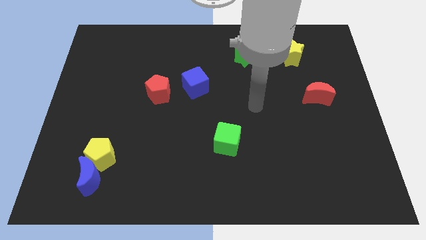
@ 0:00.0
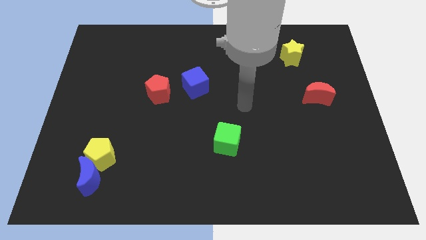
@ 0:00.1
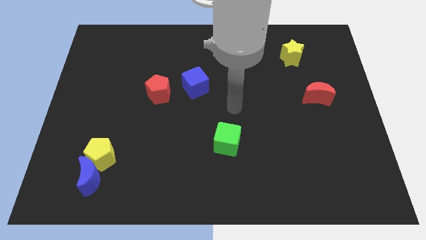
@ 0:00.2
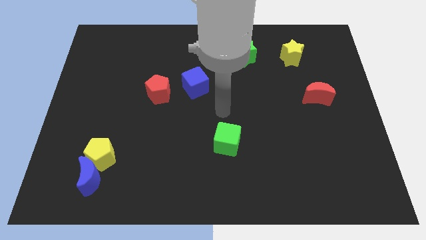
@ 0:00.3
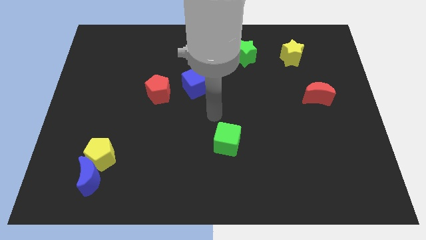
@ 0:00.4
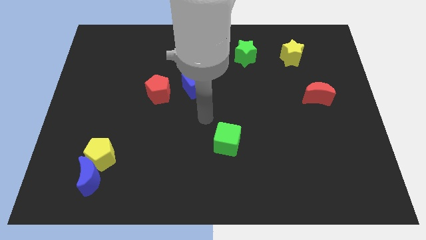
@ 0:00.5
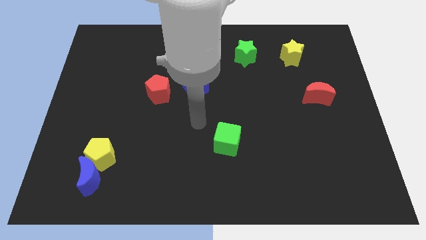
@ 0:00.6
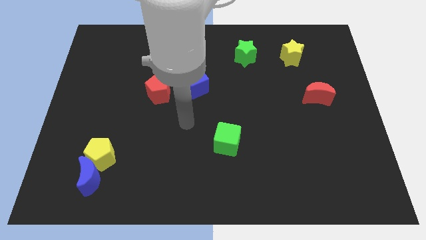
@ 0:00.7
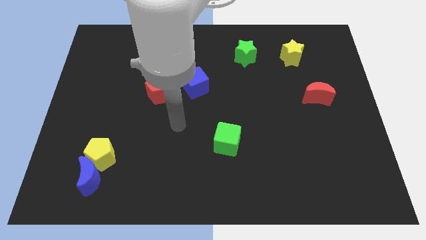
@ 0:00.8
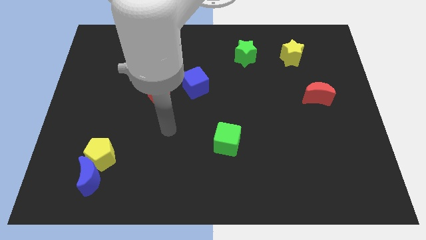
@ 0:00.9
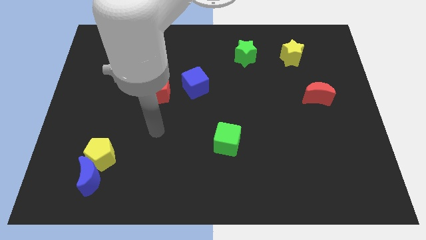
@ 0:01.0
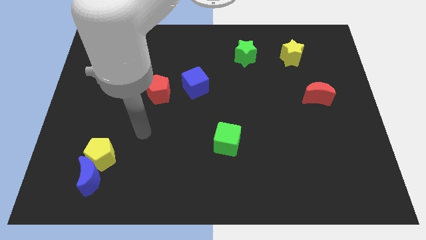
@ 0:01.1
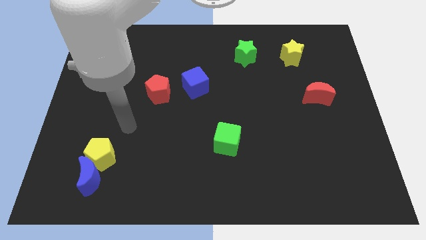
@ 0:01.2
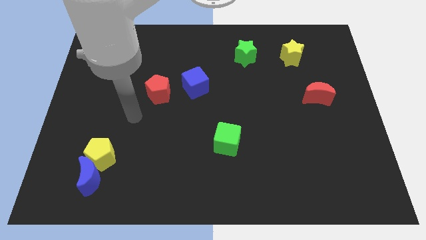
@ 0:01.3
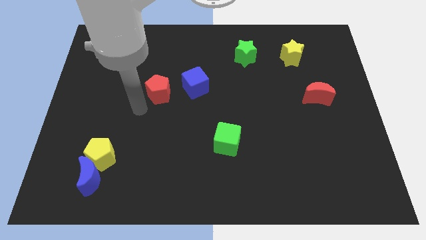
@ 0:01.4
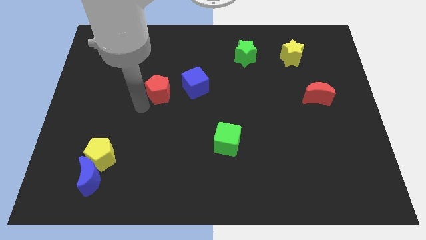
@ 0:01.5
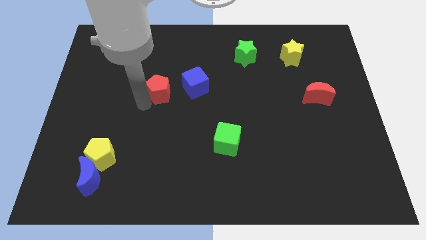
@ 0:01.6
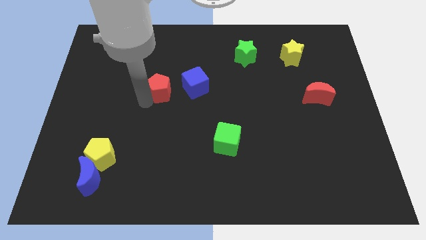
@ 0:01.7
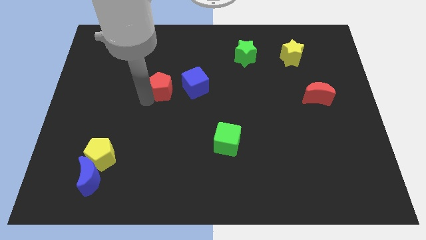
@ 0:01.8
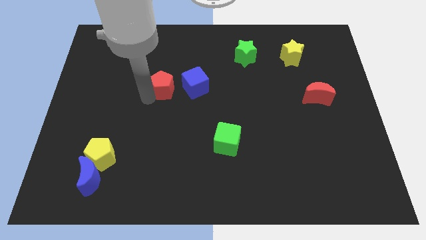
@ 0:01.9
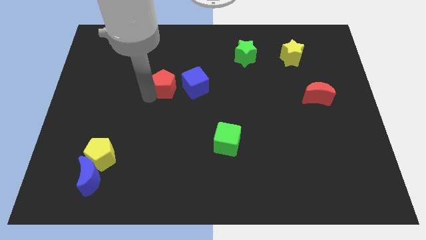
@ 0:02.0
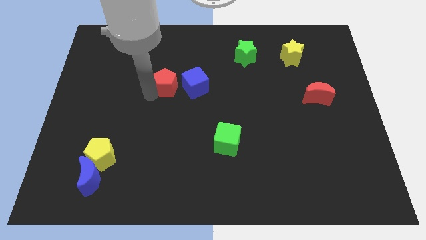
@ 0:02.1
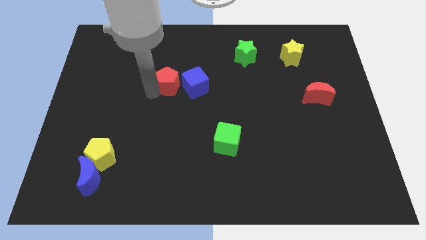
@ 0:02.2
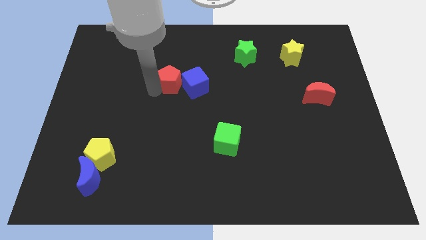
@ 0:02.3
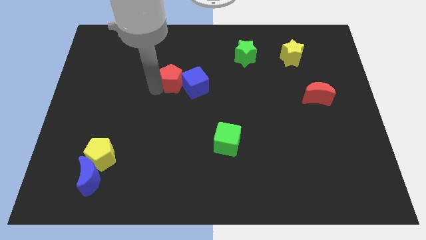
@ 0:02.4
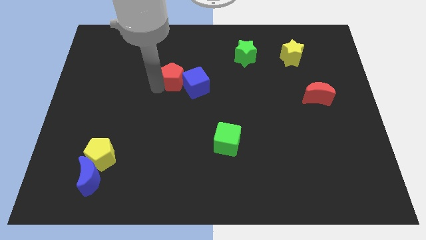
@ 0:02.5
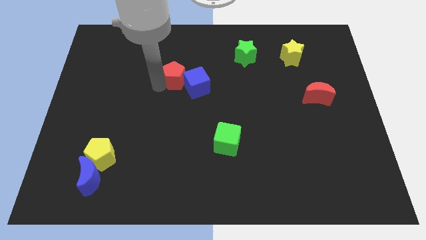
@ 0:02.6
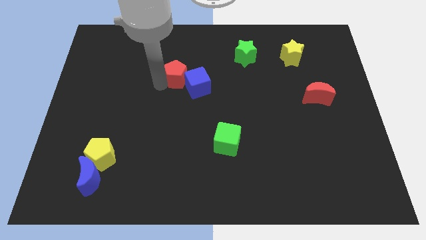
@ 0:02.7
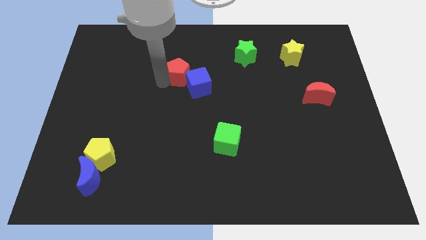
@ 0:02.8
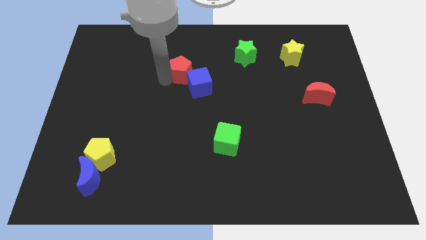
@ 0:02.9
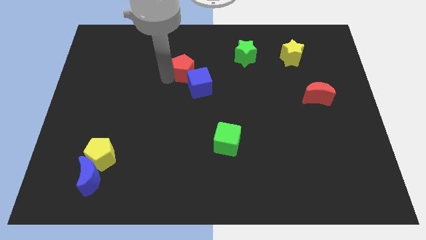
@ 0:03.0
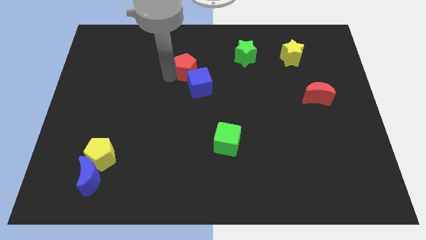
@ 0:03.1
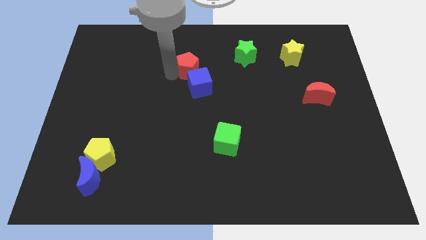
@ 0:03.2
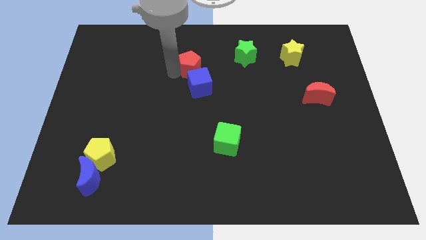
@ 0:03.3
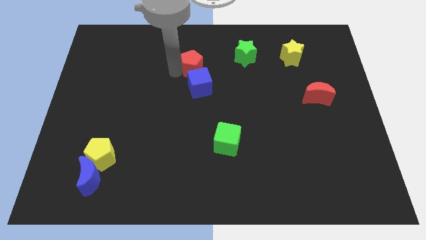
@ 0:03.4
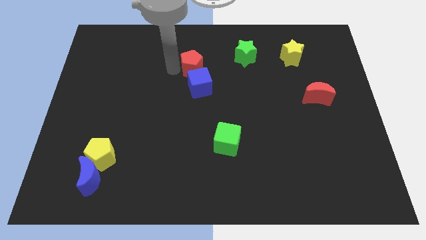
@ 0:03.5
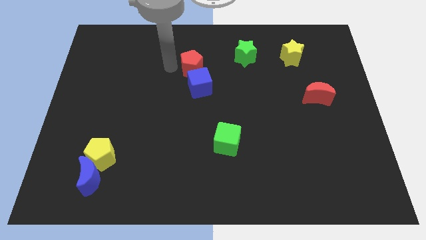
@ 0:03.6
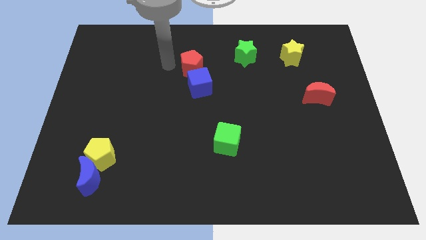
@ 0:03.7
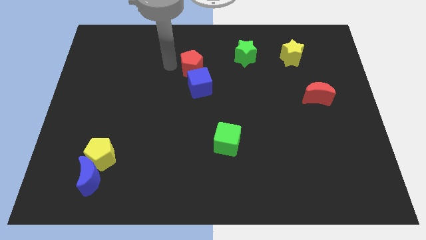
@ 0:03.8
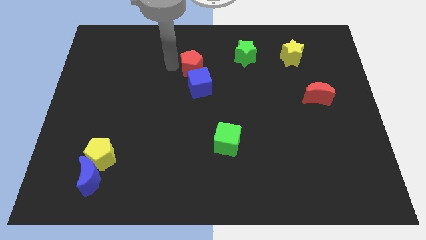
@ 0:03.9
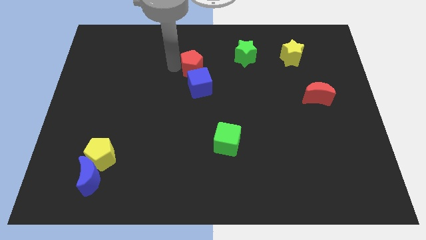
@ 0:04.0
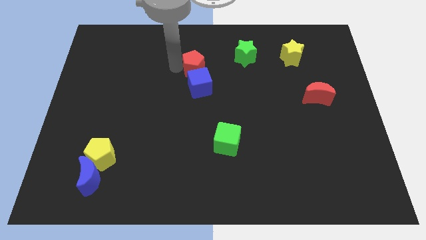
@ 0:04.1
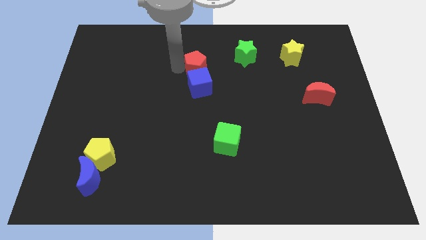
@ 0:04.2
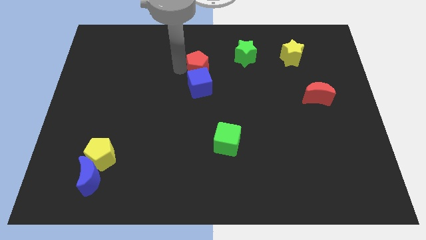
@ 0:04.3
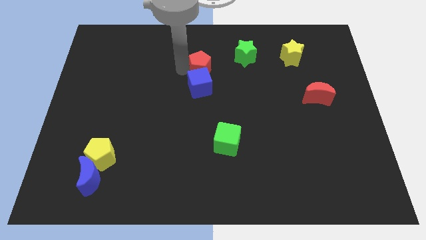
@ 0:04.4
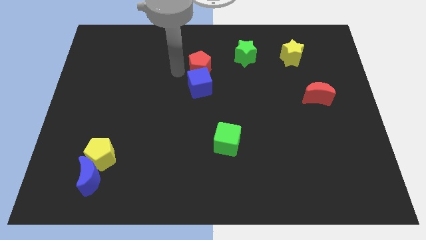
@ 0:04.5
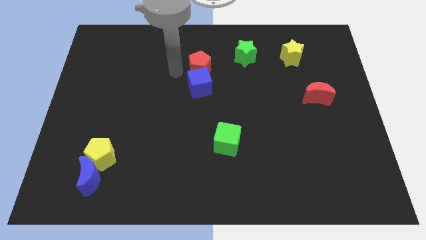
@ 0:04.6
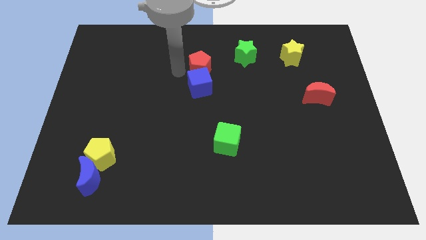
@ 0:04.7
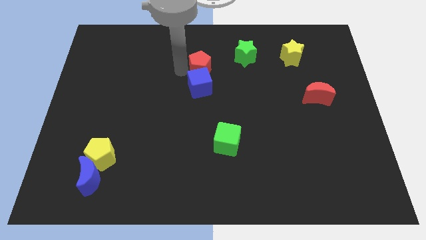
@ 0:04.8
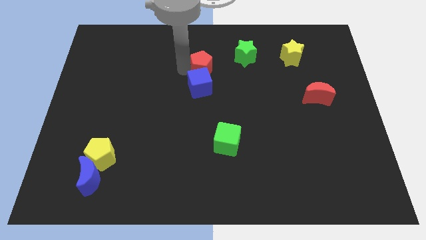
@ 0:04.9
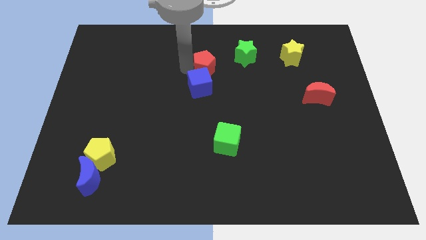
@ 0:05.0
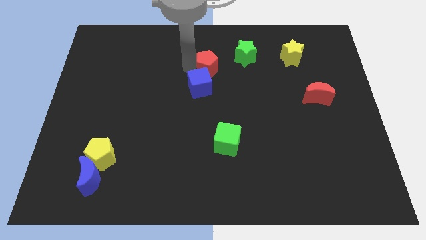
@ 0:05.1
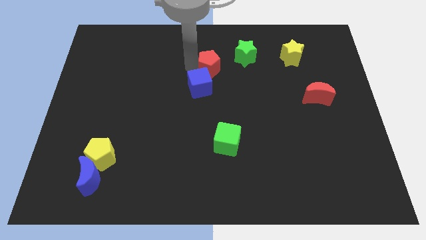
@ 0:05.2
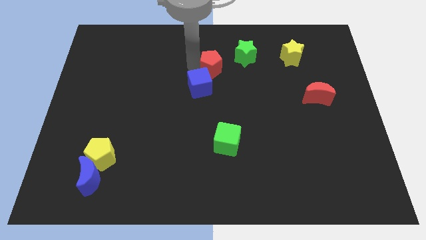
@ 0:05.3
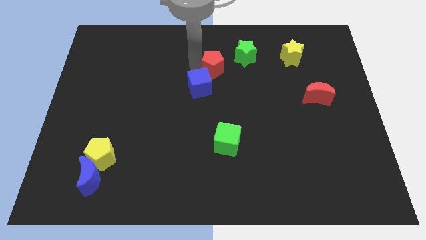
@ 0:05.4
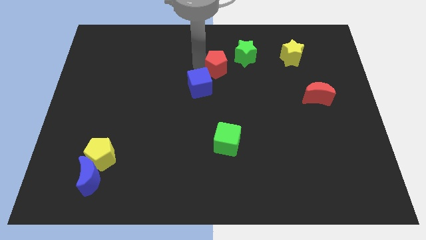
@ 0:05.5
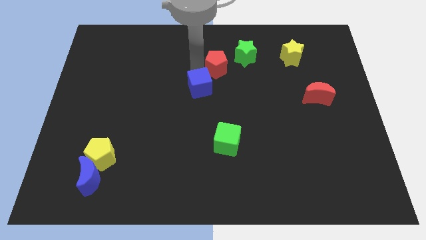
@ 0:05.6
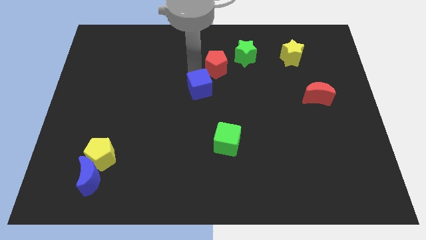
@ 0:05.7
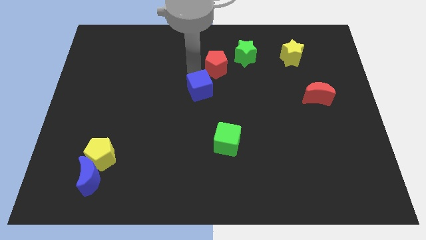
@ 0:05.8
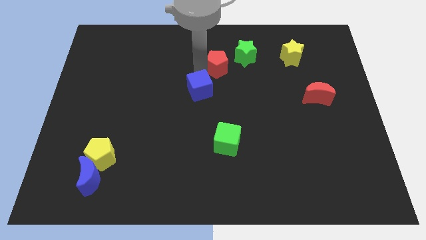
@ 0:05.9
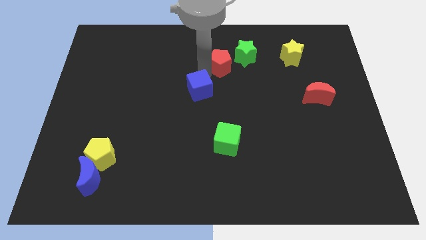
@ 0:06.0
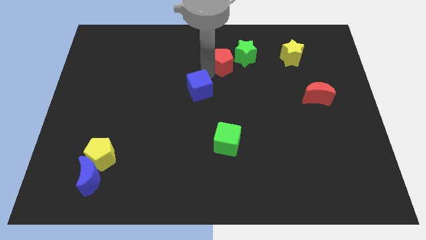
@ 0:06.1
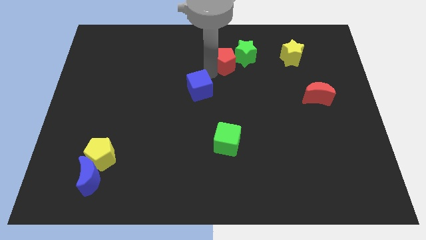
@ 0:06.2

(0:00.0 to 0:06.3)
slide the red pentagon towards the green star

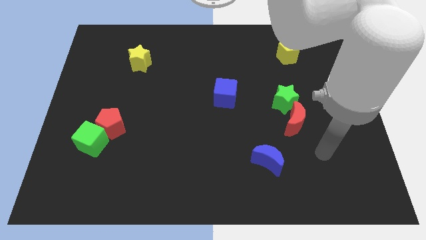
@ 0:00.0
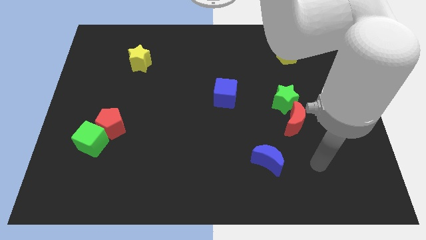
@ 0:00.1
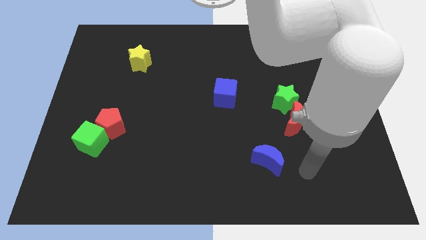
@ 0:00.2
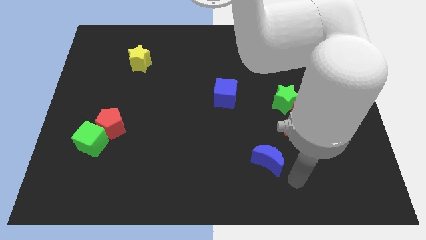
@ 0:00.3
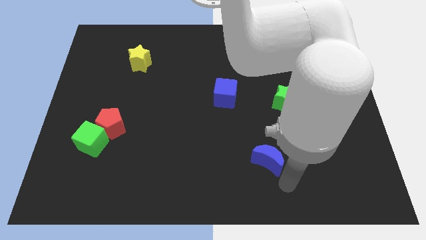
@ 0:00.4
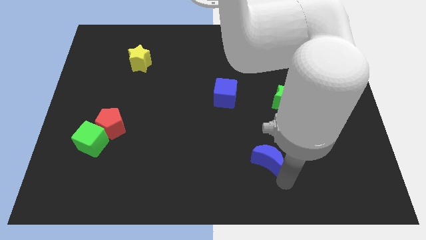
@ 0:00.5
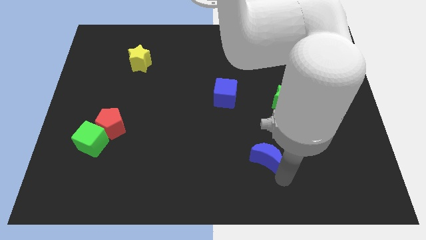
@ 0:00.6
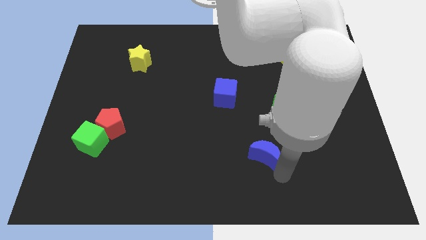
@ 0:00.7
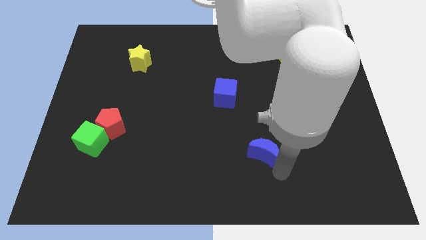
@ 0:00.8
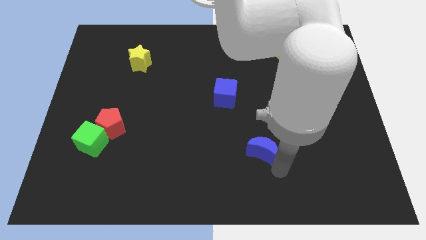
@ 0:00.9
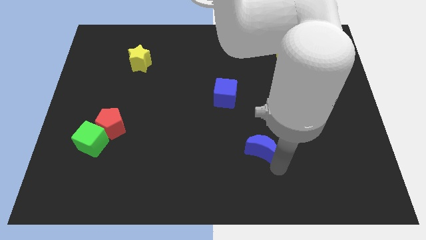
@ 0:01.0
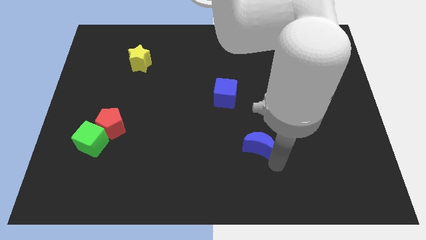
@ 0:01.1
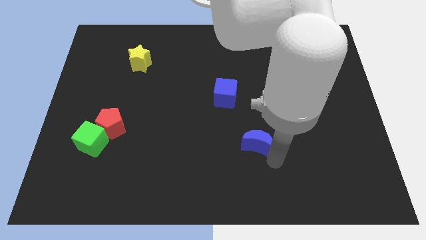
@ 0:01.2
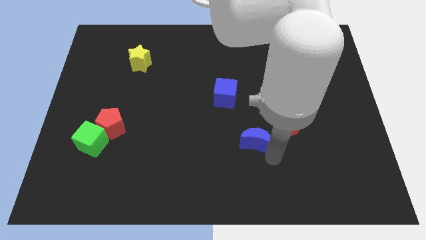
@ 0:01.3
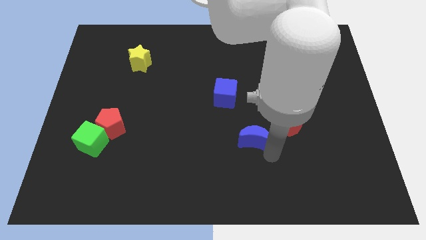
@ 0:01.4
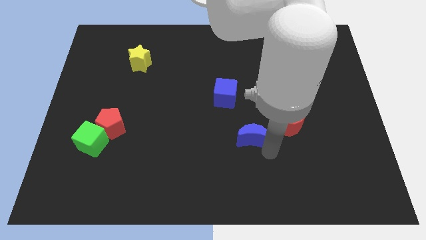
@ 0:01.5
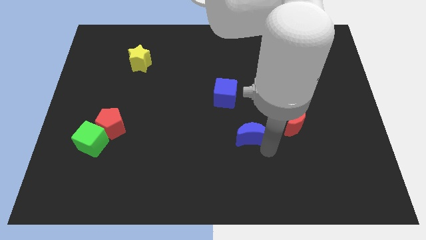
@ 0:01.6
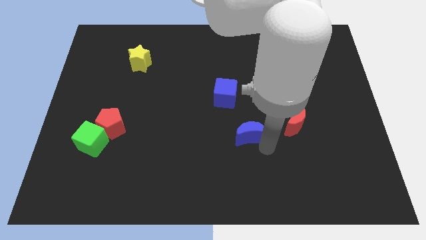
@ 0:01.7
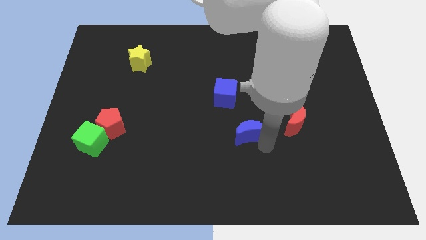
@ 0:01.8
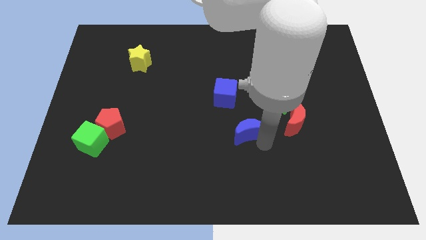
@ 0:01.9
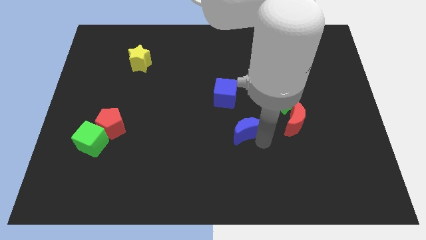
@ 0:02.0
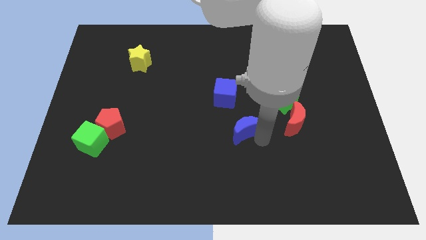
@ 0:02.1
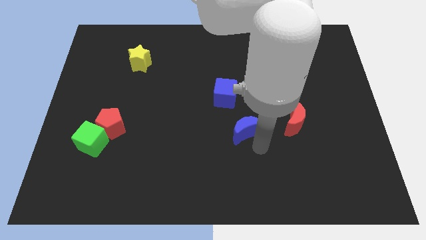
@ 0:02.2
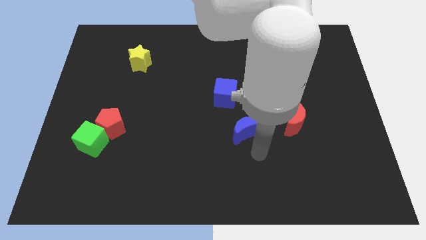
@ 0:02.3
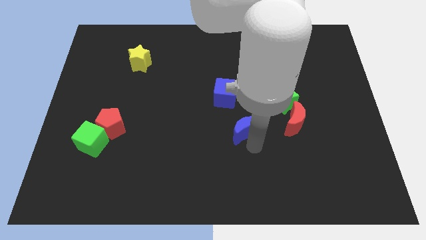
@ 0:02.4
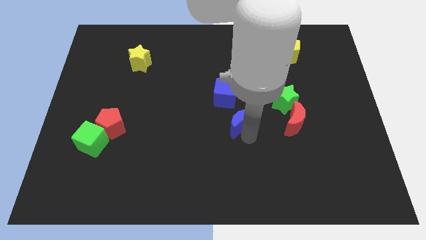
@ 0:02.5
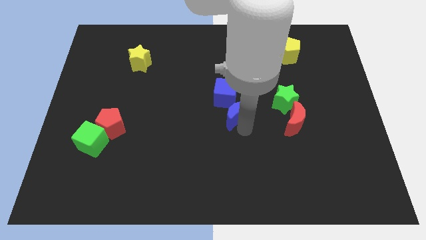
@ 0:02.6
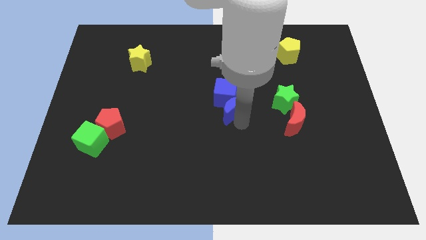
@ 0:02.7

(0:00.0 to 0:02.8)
move the blue moon next to the blue cube
